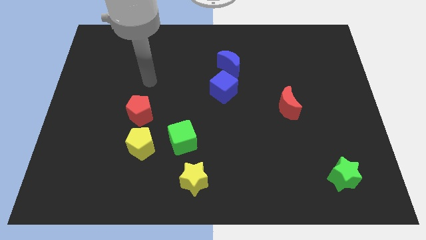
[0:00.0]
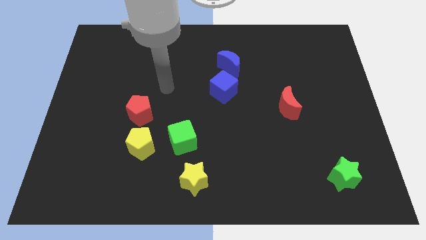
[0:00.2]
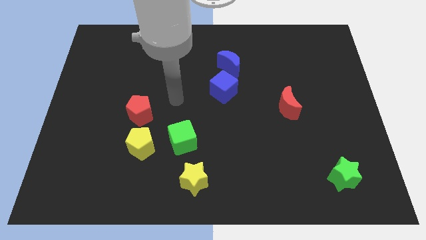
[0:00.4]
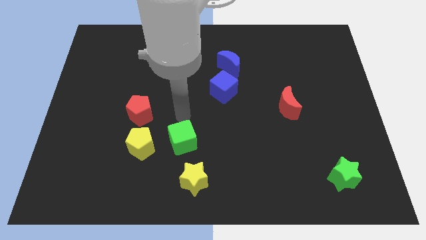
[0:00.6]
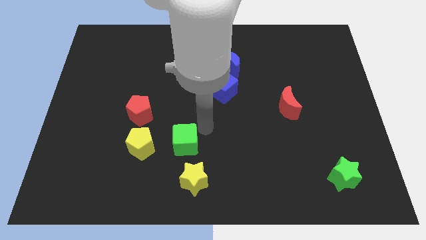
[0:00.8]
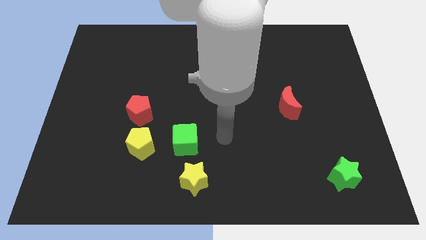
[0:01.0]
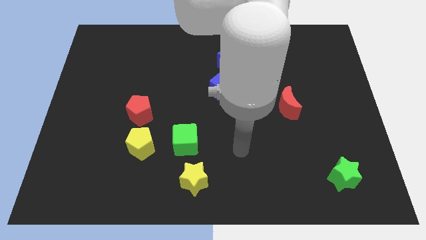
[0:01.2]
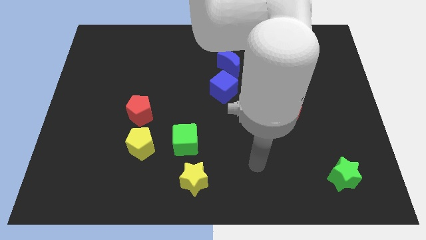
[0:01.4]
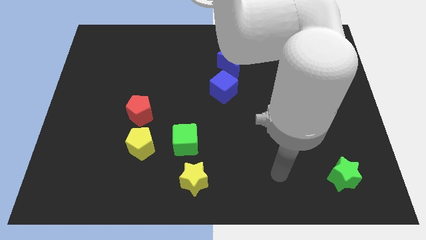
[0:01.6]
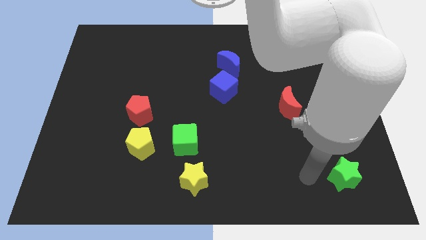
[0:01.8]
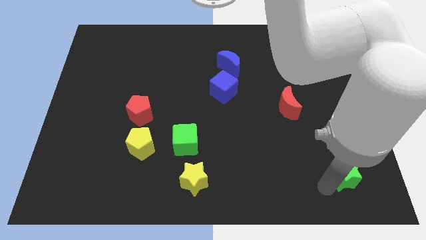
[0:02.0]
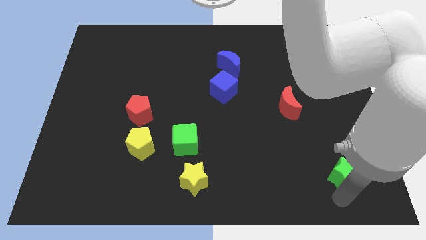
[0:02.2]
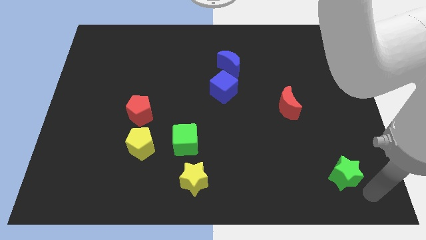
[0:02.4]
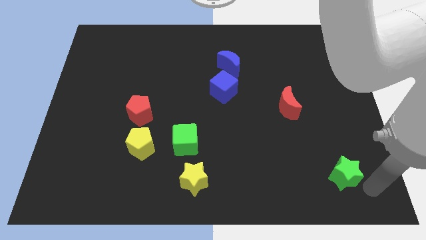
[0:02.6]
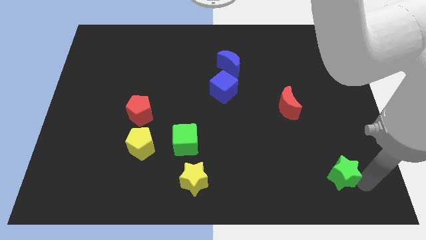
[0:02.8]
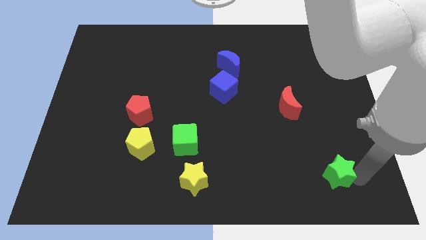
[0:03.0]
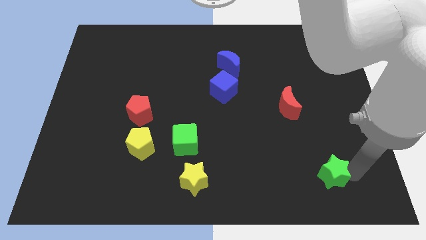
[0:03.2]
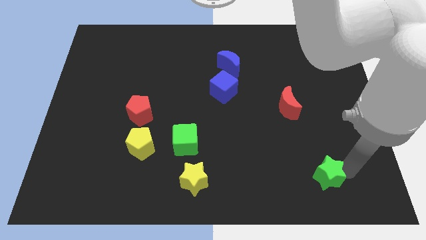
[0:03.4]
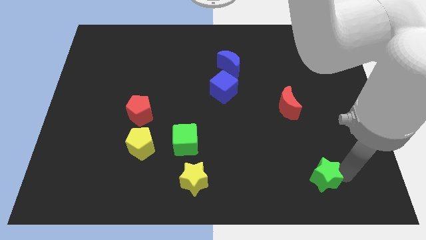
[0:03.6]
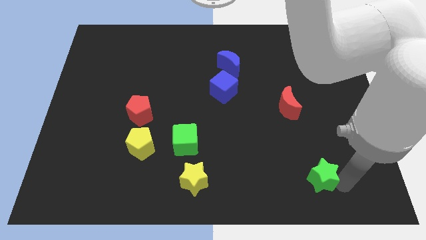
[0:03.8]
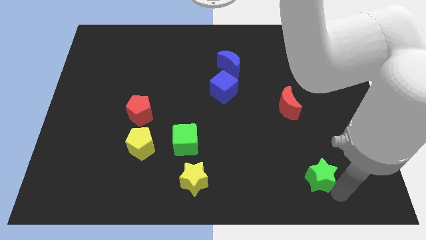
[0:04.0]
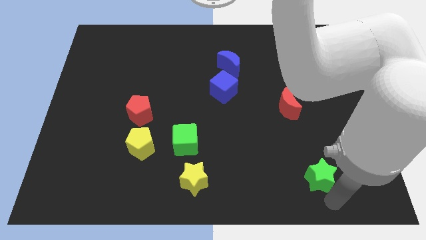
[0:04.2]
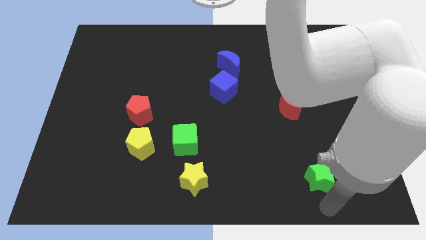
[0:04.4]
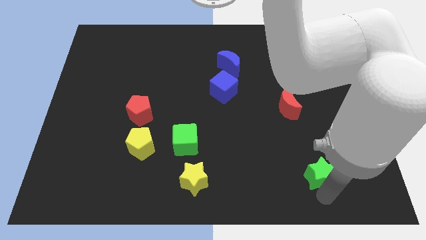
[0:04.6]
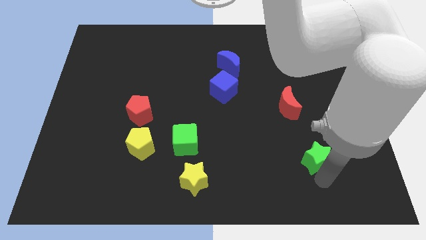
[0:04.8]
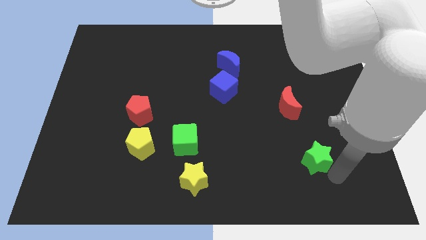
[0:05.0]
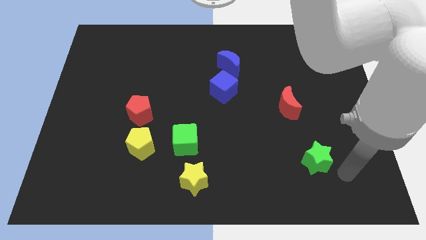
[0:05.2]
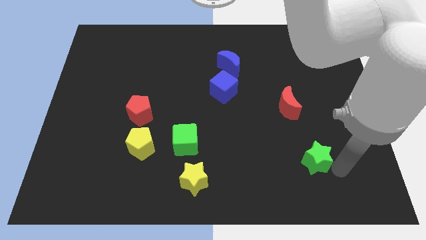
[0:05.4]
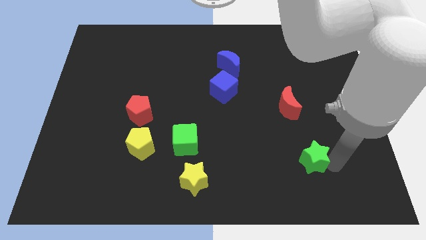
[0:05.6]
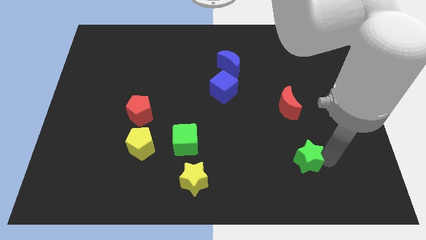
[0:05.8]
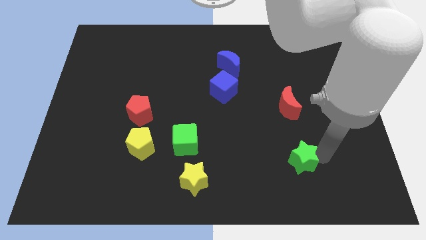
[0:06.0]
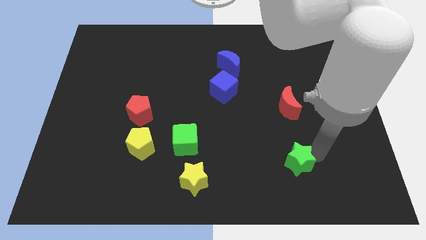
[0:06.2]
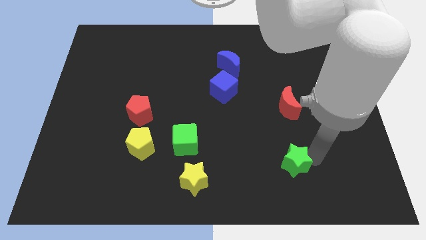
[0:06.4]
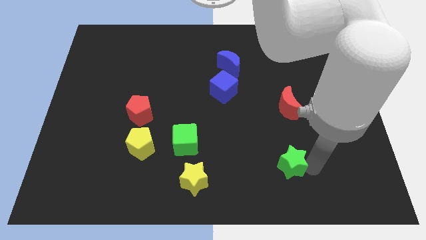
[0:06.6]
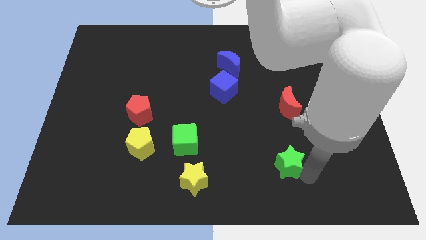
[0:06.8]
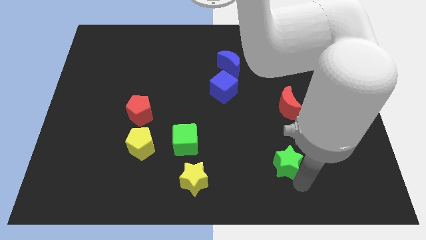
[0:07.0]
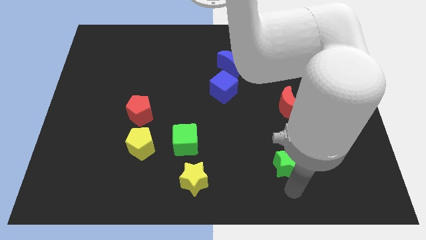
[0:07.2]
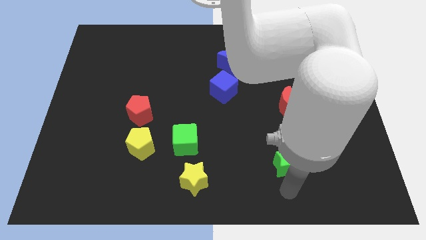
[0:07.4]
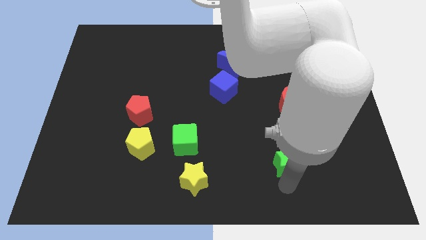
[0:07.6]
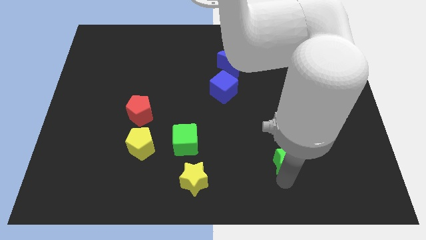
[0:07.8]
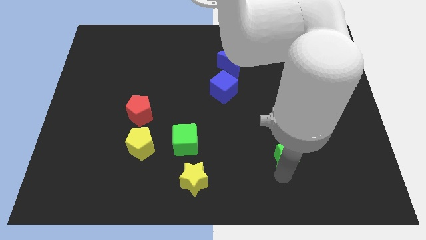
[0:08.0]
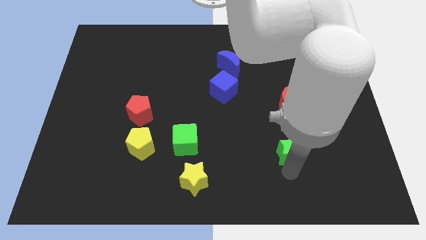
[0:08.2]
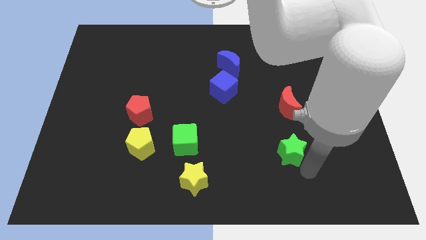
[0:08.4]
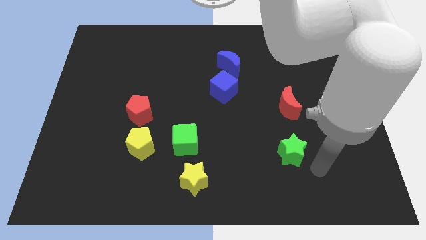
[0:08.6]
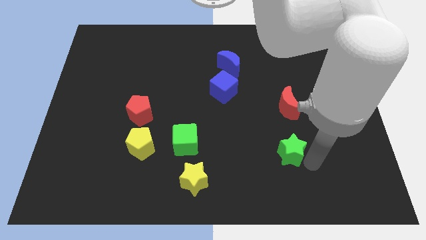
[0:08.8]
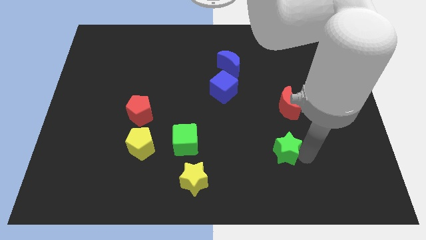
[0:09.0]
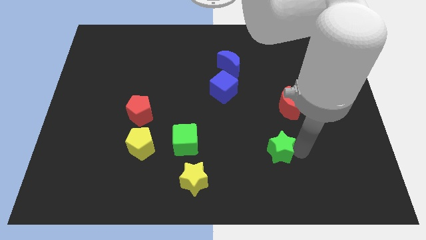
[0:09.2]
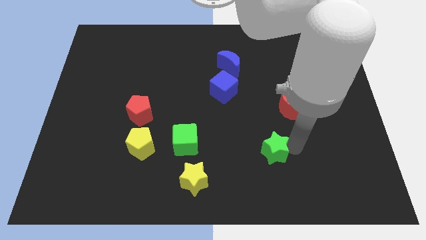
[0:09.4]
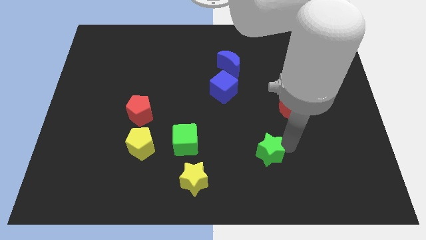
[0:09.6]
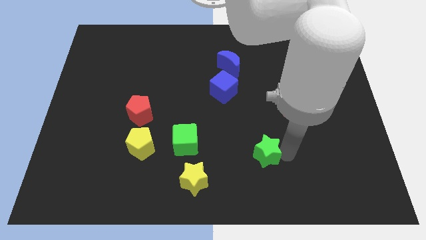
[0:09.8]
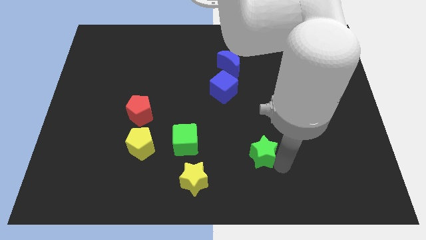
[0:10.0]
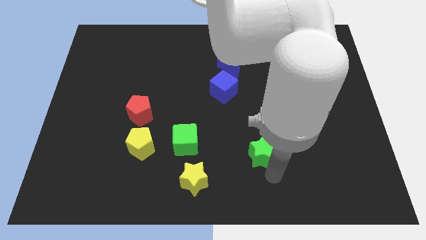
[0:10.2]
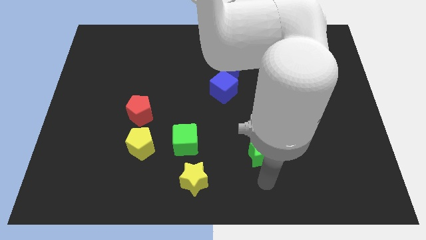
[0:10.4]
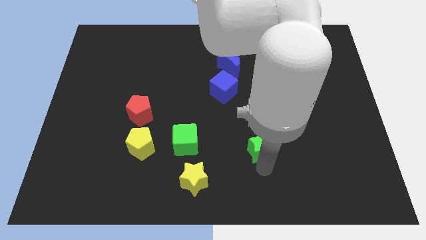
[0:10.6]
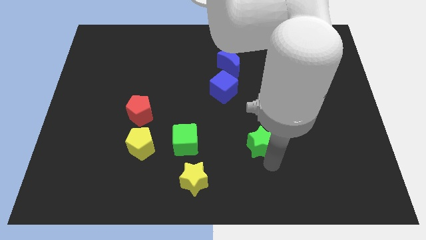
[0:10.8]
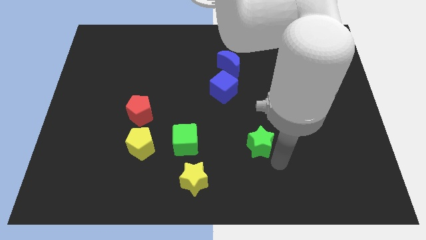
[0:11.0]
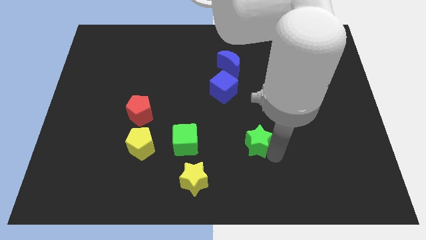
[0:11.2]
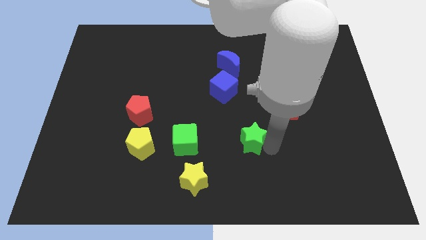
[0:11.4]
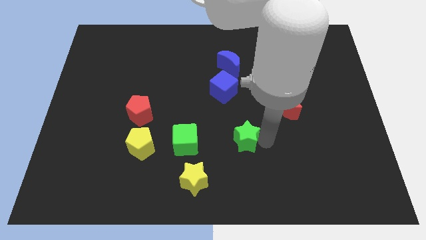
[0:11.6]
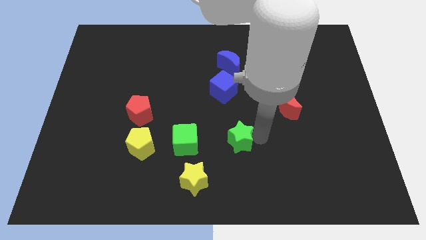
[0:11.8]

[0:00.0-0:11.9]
slide the green star to the middle

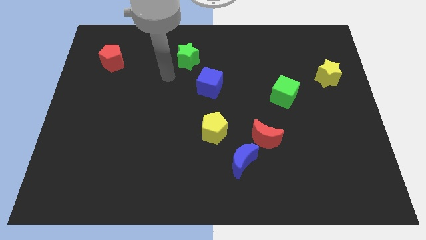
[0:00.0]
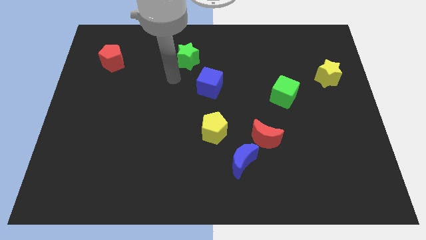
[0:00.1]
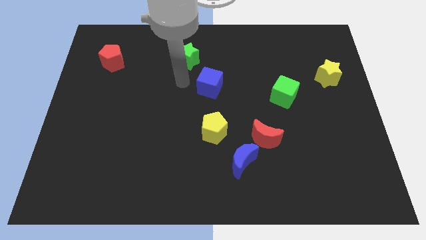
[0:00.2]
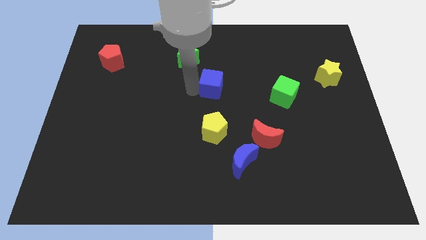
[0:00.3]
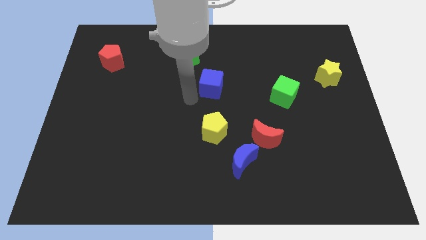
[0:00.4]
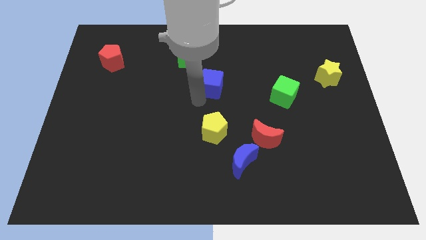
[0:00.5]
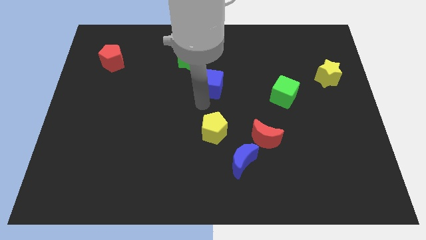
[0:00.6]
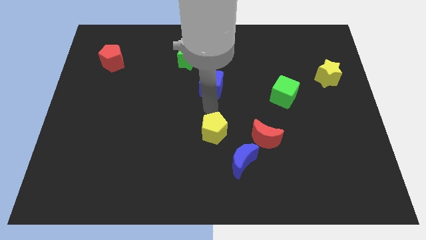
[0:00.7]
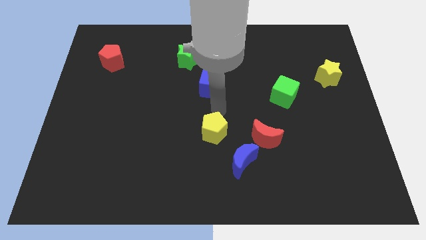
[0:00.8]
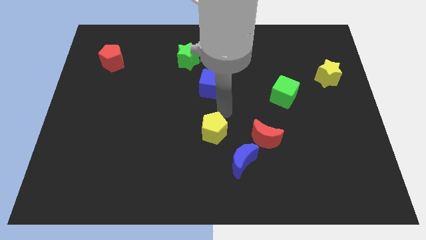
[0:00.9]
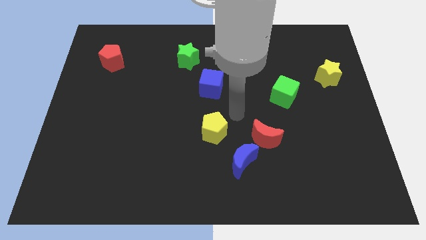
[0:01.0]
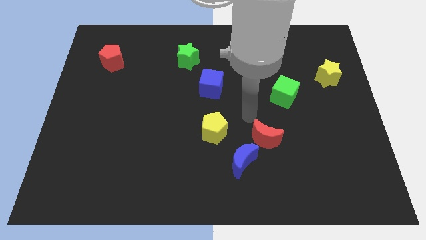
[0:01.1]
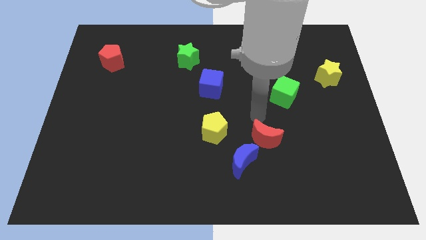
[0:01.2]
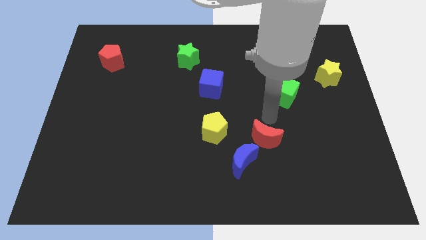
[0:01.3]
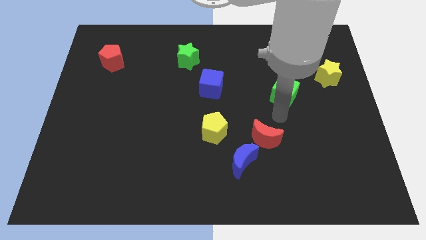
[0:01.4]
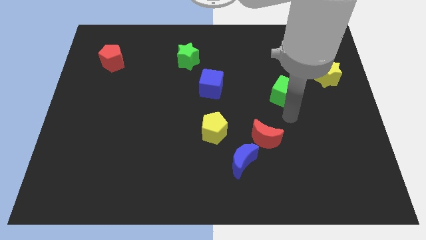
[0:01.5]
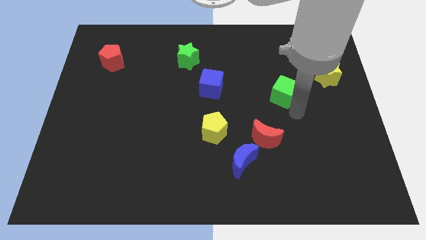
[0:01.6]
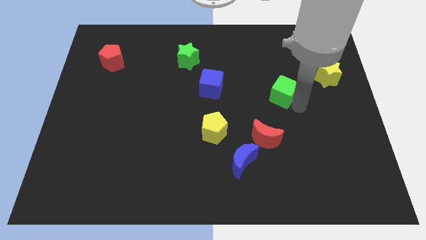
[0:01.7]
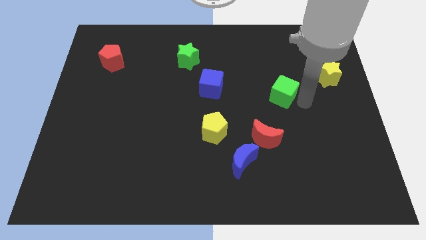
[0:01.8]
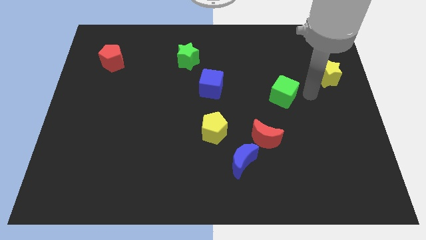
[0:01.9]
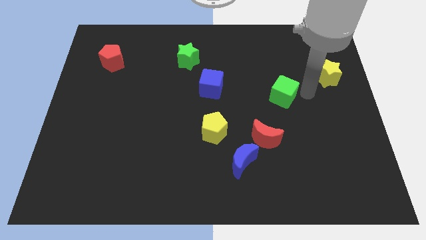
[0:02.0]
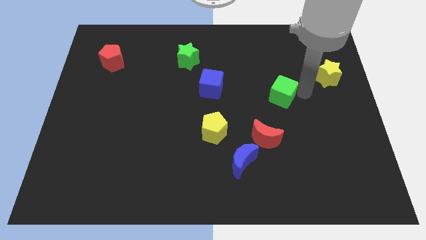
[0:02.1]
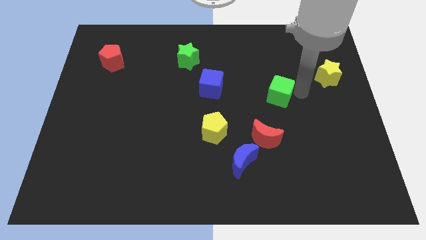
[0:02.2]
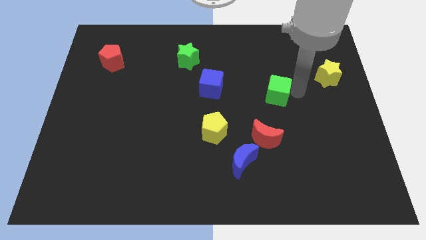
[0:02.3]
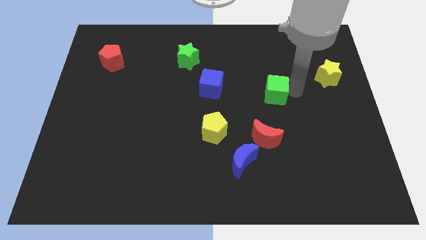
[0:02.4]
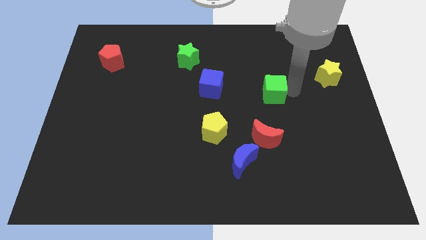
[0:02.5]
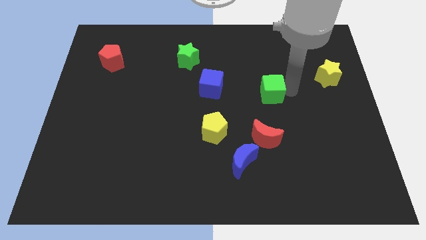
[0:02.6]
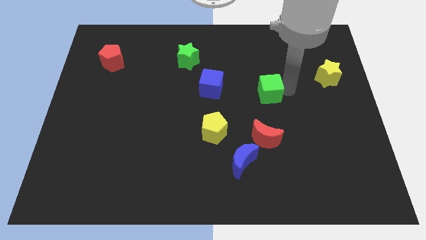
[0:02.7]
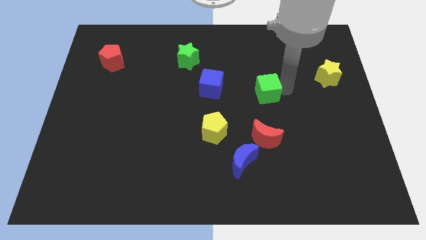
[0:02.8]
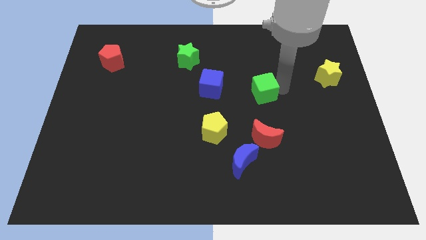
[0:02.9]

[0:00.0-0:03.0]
slide the green cube to the middle
